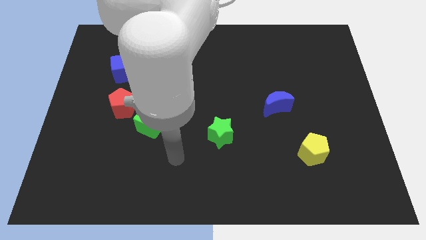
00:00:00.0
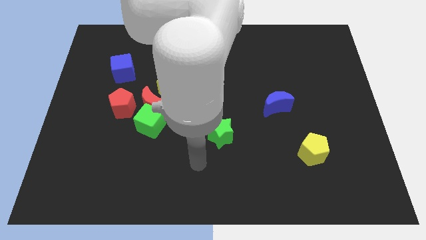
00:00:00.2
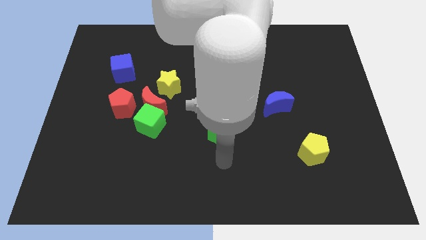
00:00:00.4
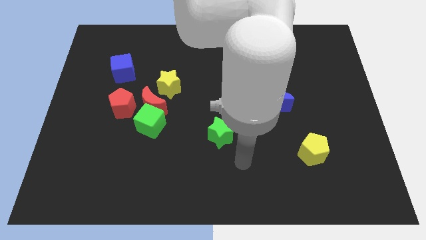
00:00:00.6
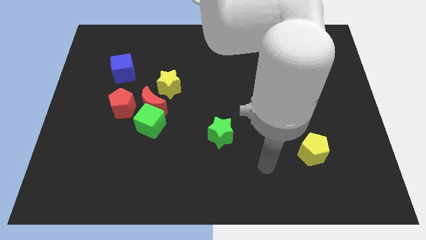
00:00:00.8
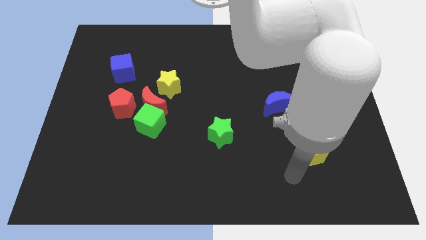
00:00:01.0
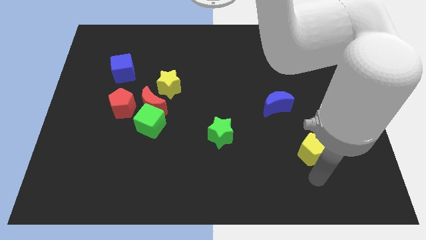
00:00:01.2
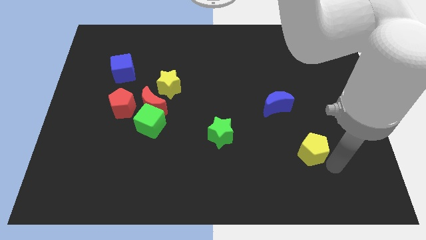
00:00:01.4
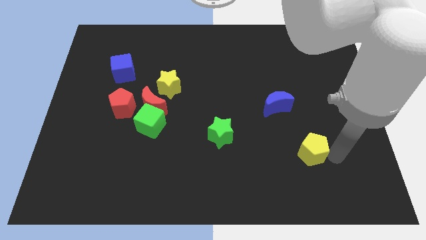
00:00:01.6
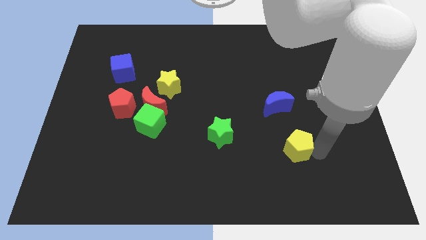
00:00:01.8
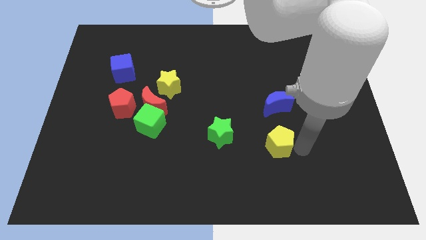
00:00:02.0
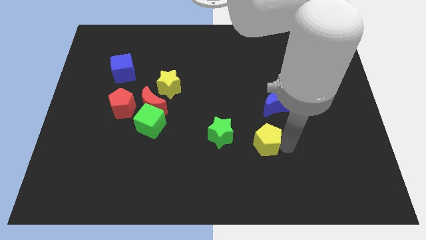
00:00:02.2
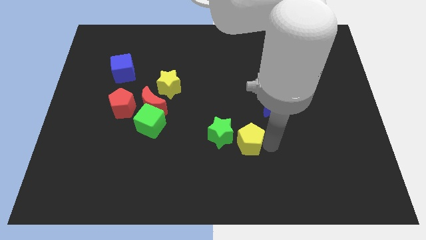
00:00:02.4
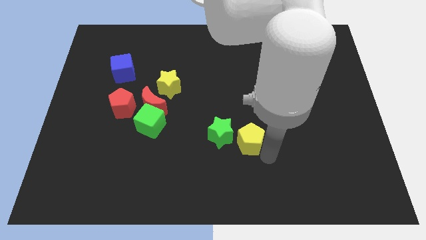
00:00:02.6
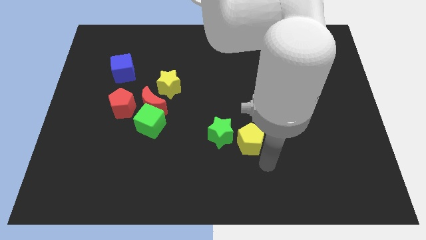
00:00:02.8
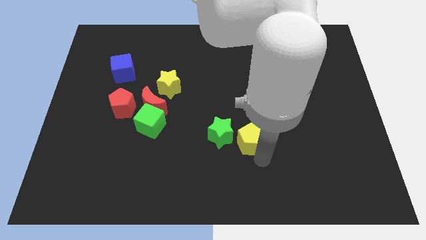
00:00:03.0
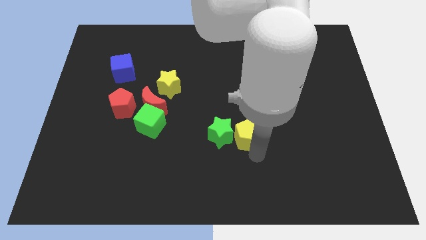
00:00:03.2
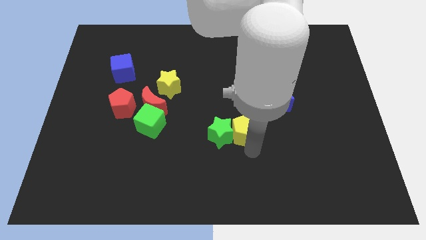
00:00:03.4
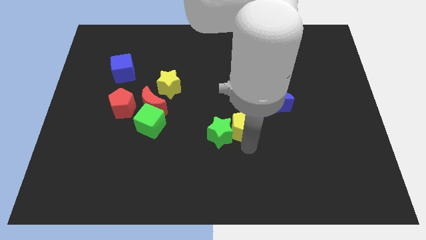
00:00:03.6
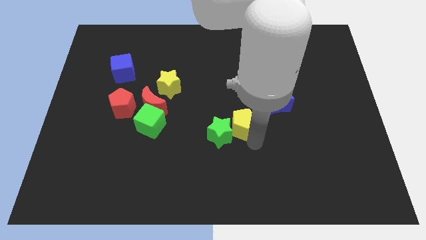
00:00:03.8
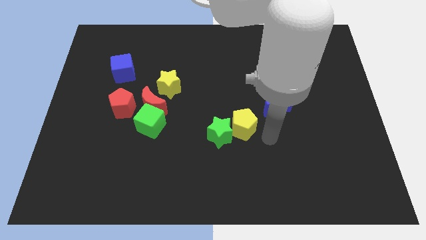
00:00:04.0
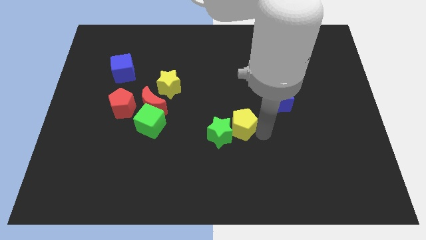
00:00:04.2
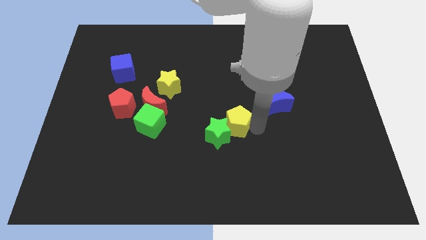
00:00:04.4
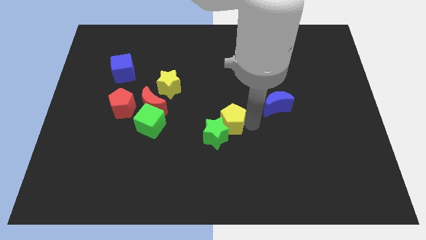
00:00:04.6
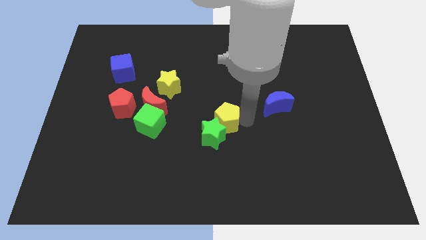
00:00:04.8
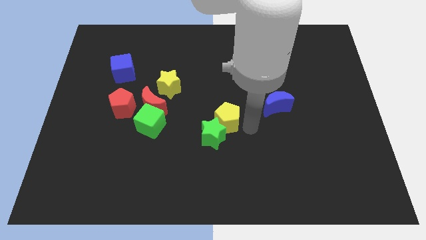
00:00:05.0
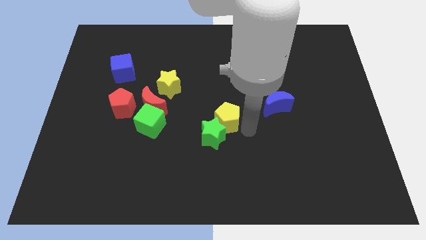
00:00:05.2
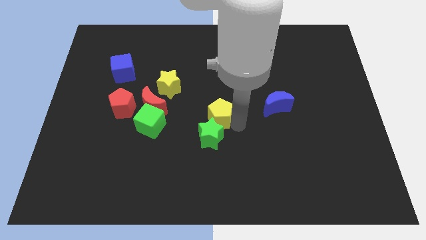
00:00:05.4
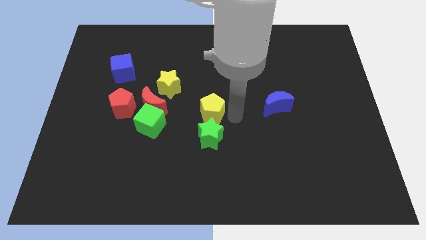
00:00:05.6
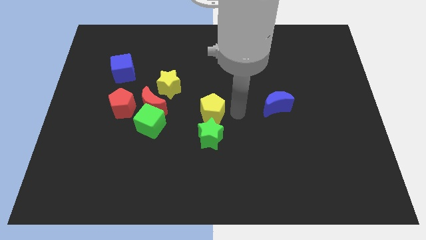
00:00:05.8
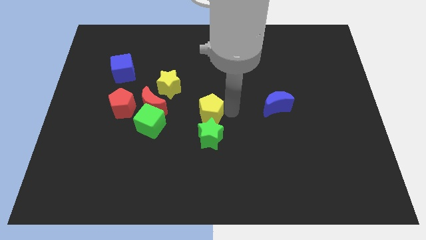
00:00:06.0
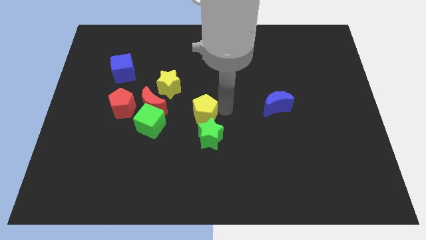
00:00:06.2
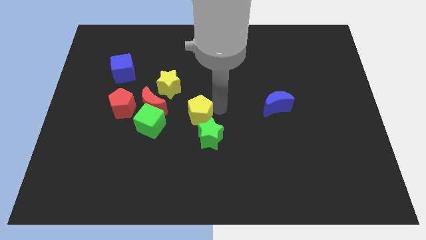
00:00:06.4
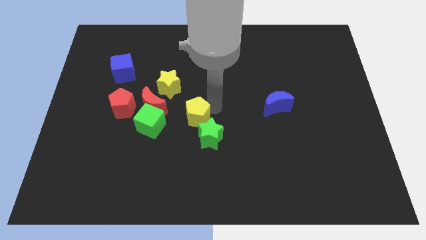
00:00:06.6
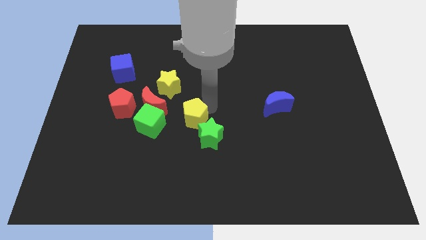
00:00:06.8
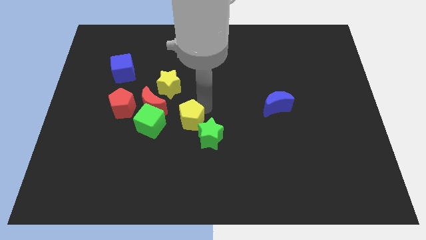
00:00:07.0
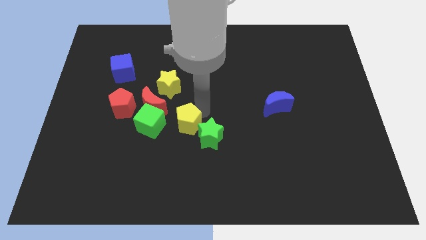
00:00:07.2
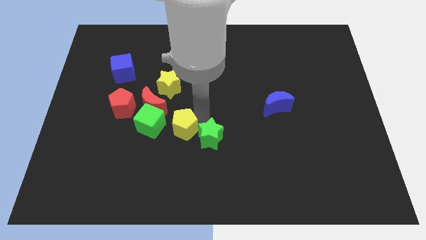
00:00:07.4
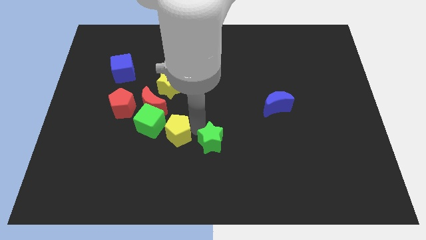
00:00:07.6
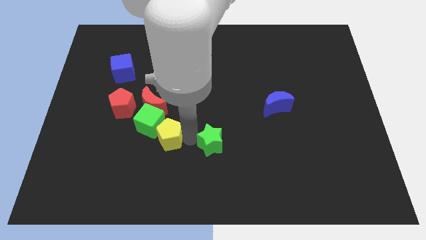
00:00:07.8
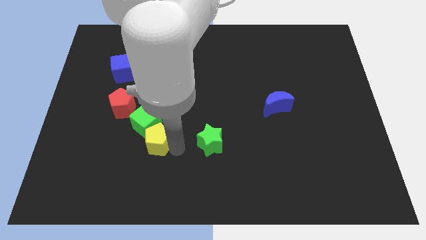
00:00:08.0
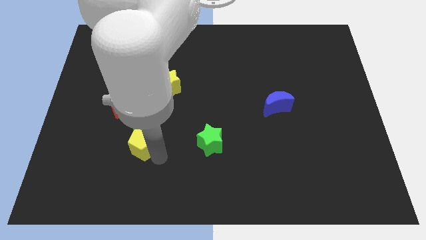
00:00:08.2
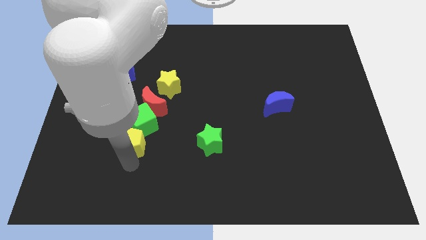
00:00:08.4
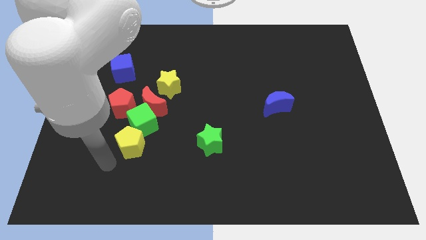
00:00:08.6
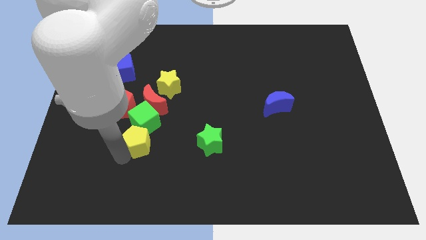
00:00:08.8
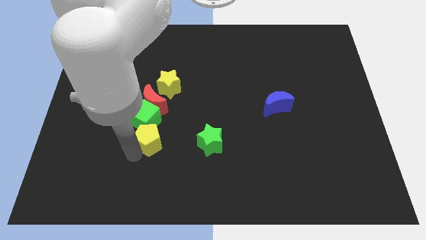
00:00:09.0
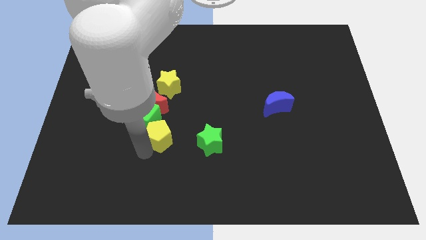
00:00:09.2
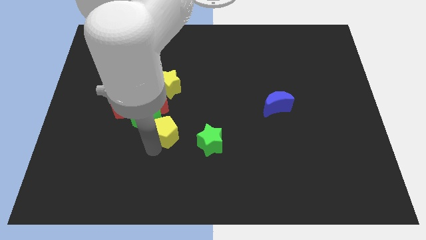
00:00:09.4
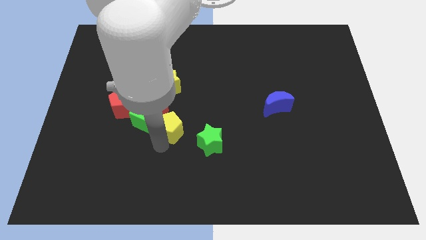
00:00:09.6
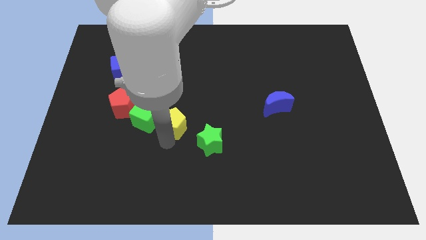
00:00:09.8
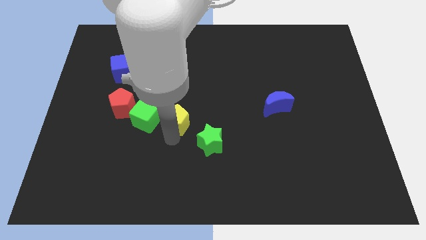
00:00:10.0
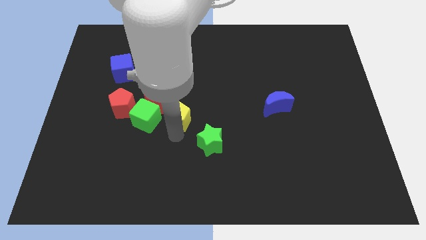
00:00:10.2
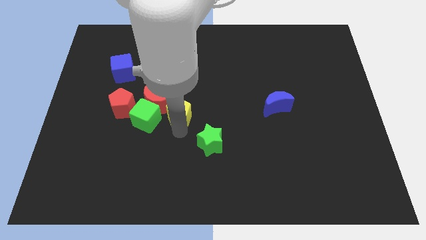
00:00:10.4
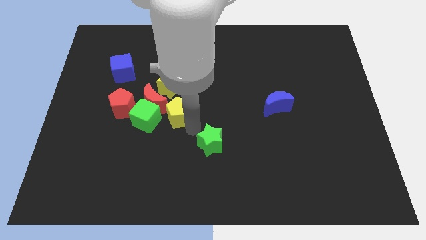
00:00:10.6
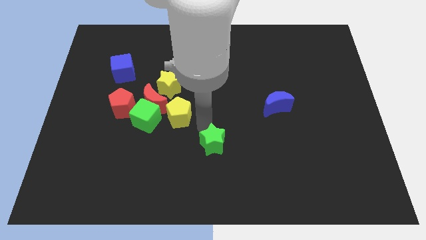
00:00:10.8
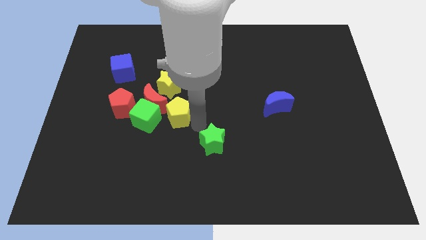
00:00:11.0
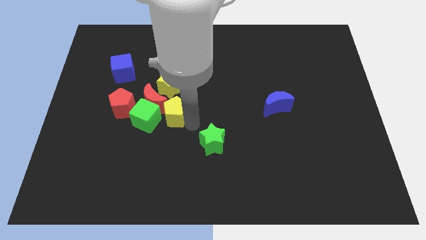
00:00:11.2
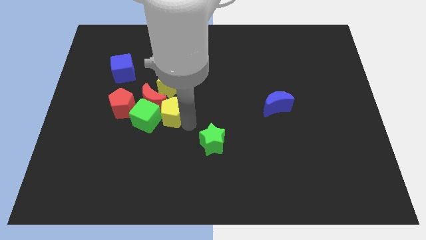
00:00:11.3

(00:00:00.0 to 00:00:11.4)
push the yellow pentagon to the red moon

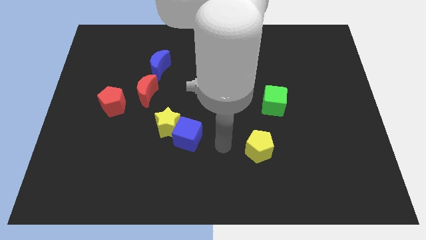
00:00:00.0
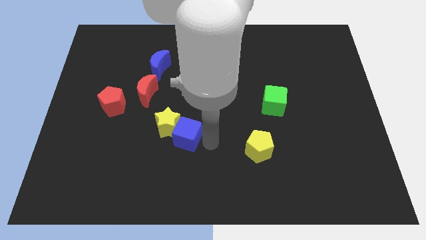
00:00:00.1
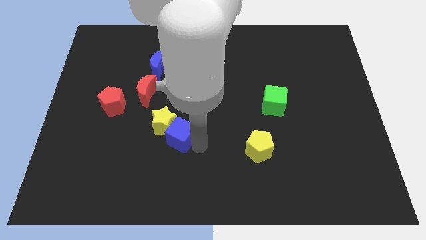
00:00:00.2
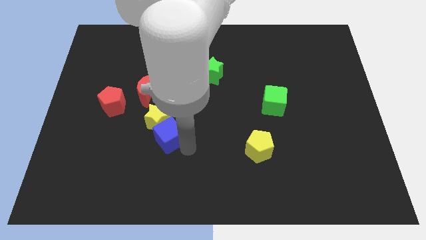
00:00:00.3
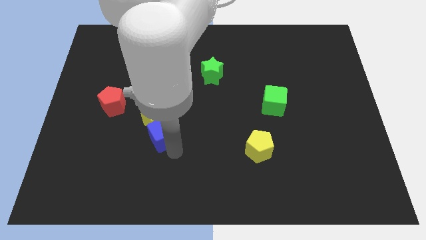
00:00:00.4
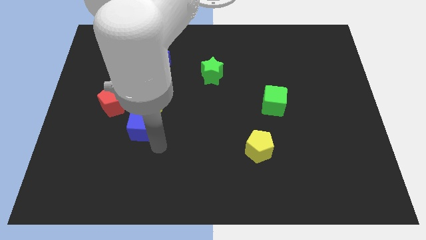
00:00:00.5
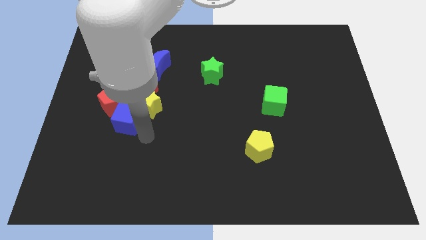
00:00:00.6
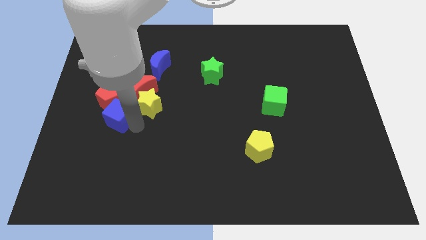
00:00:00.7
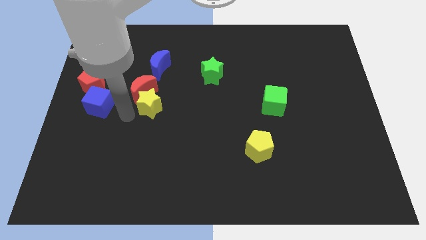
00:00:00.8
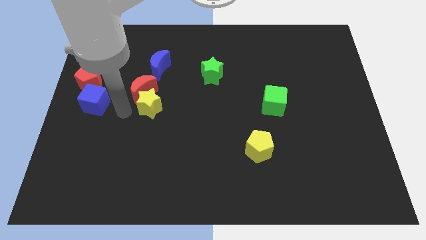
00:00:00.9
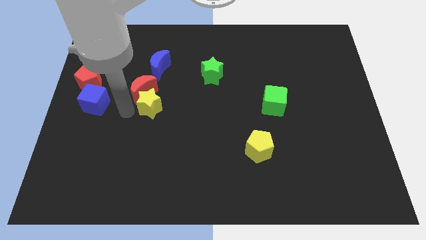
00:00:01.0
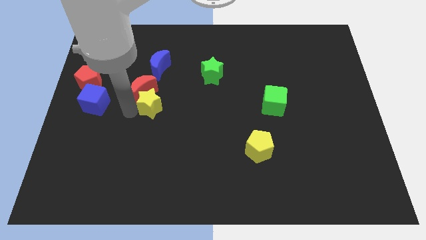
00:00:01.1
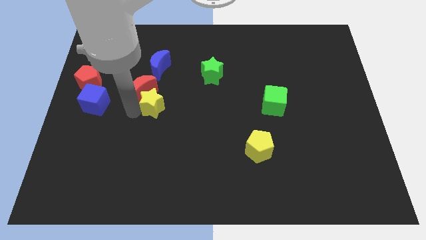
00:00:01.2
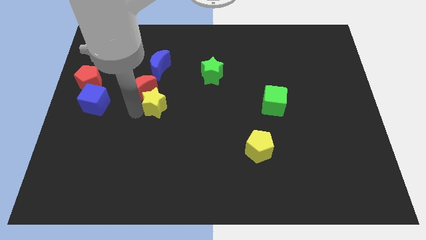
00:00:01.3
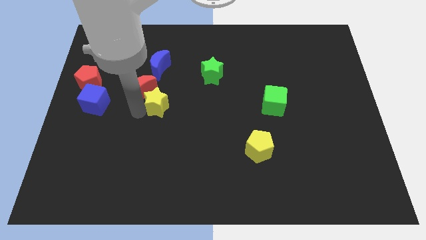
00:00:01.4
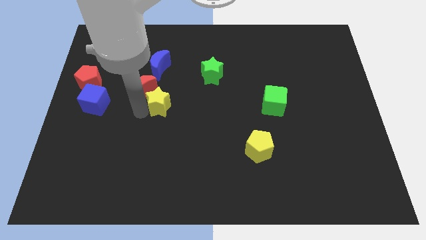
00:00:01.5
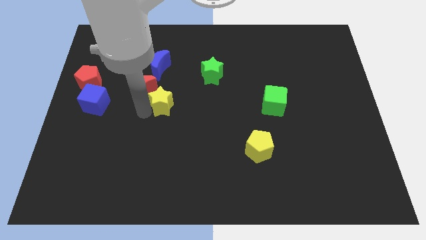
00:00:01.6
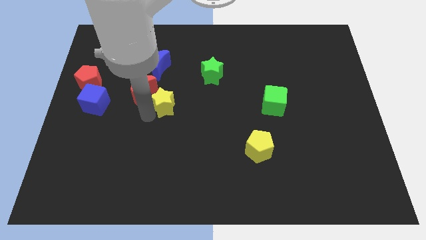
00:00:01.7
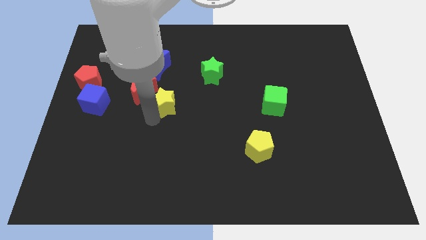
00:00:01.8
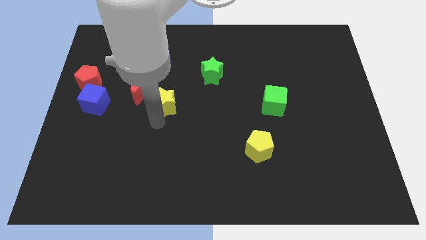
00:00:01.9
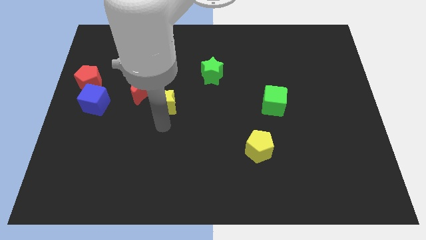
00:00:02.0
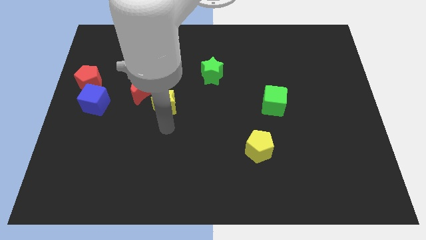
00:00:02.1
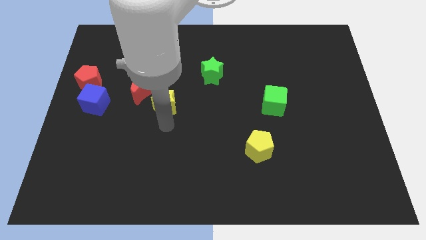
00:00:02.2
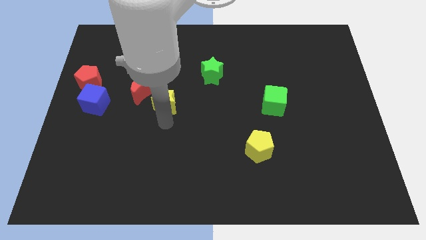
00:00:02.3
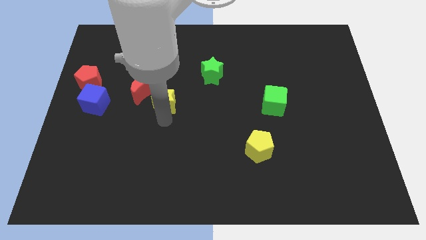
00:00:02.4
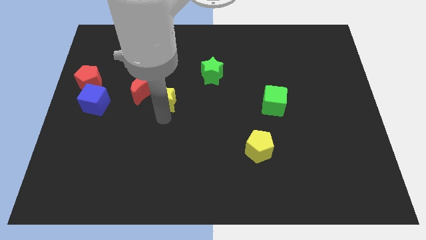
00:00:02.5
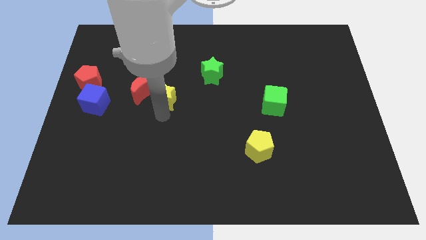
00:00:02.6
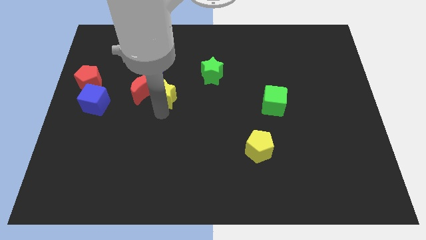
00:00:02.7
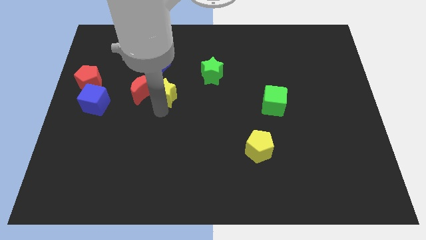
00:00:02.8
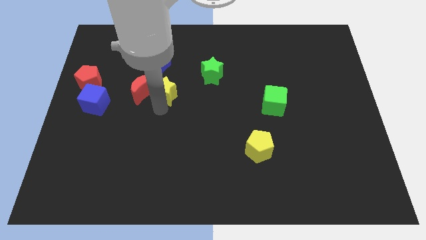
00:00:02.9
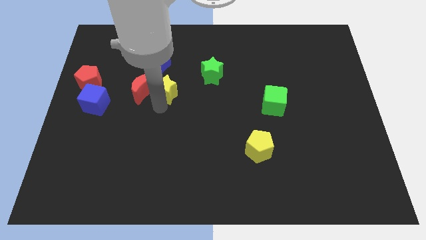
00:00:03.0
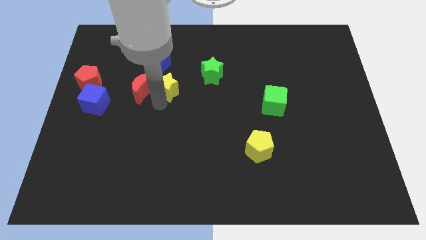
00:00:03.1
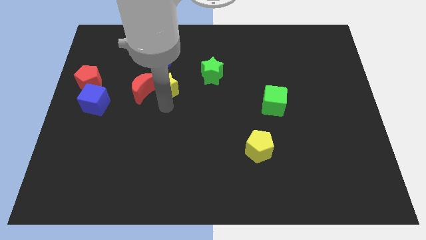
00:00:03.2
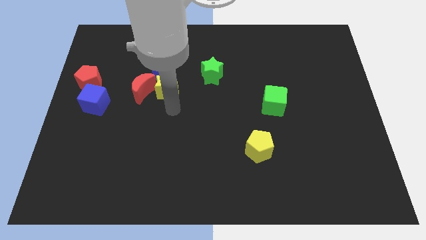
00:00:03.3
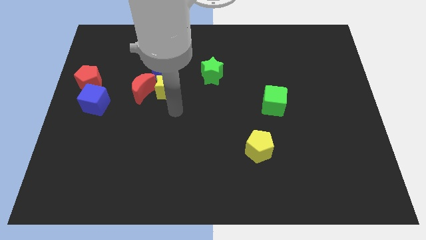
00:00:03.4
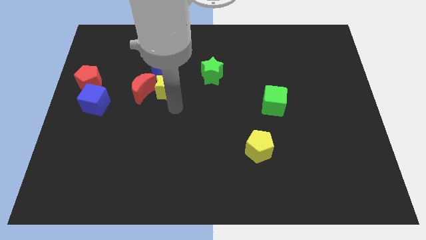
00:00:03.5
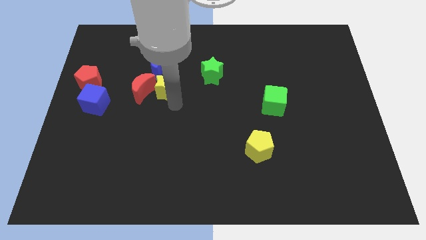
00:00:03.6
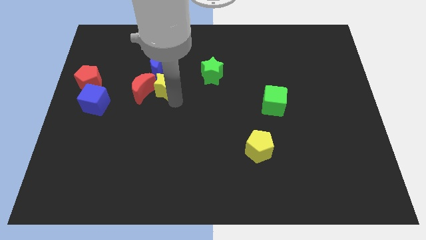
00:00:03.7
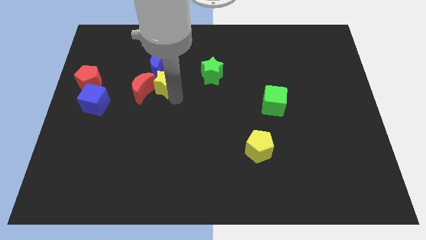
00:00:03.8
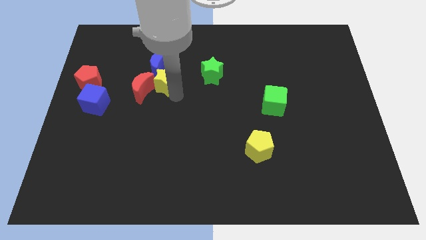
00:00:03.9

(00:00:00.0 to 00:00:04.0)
put the yellow star to the blue moon
